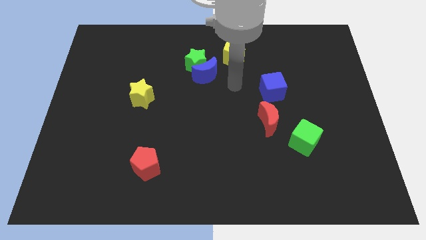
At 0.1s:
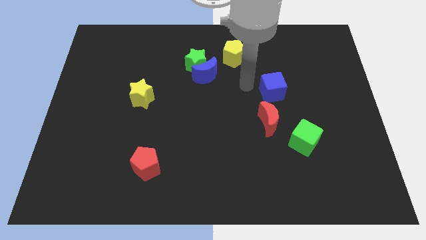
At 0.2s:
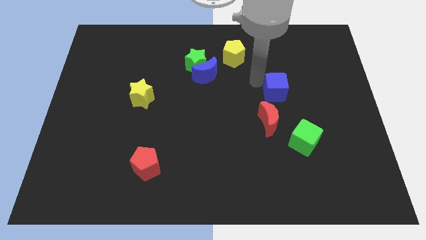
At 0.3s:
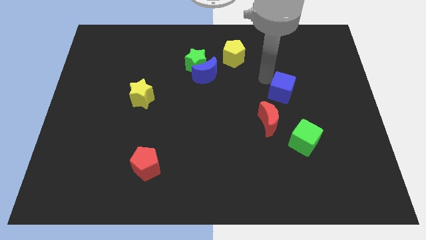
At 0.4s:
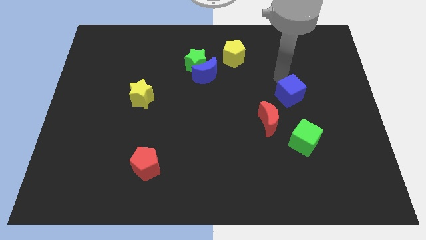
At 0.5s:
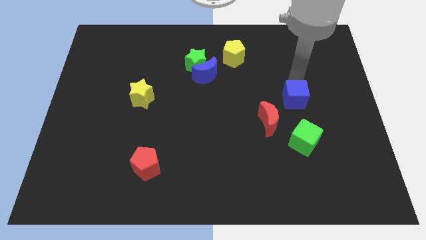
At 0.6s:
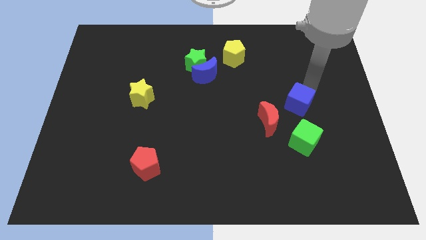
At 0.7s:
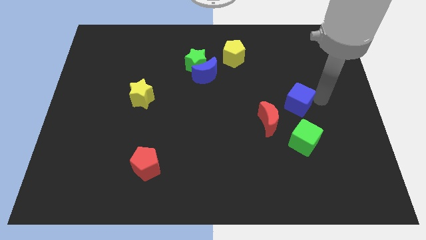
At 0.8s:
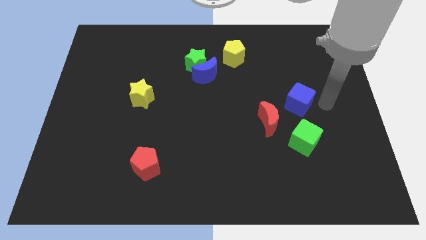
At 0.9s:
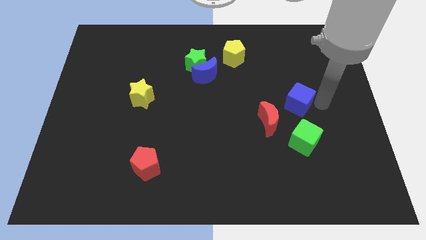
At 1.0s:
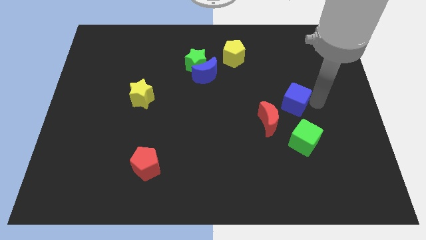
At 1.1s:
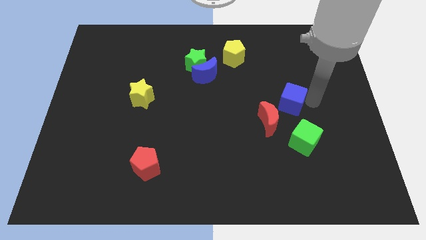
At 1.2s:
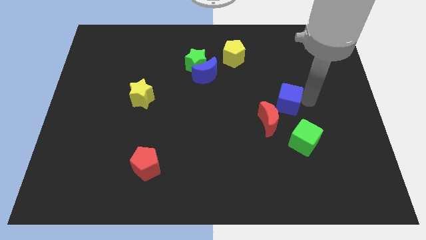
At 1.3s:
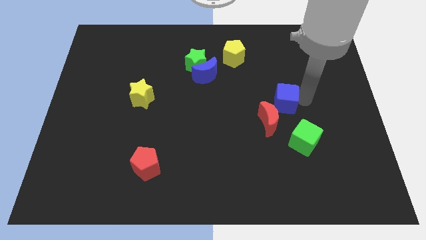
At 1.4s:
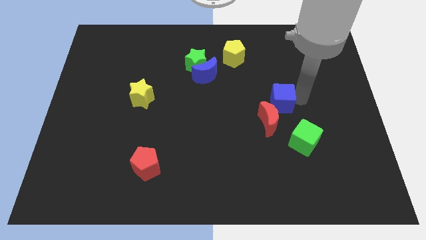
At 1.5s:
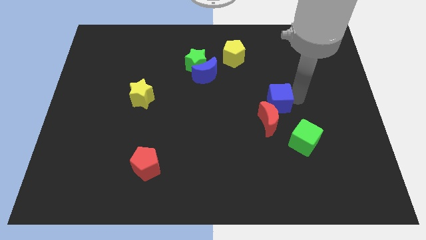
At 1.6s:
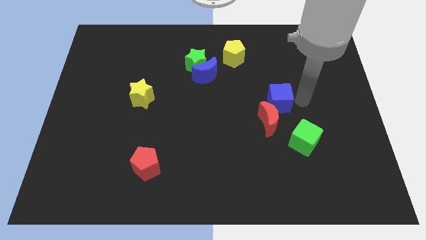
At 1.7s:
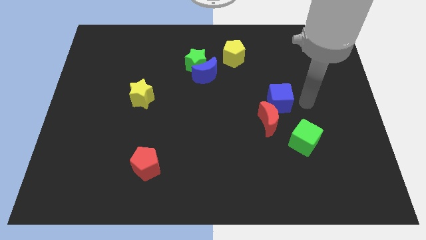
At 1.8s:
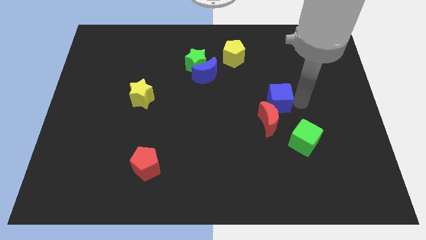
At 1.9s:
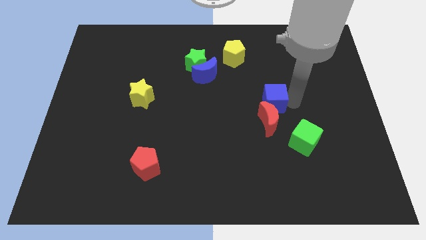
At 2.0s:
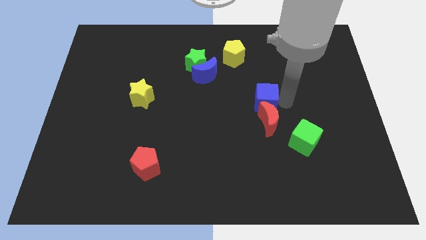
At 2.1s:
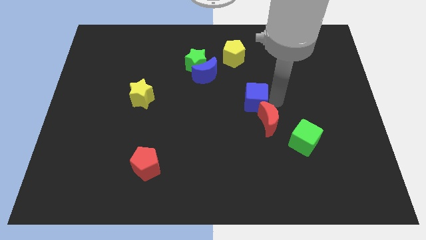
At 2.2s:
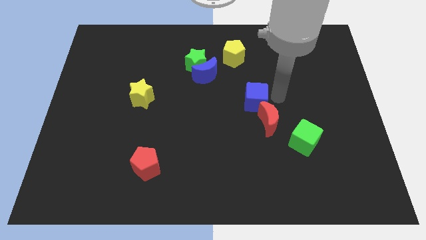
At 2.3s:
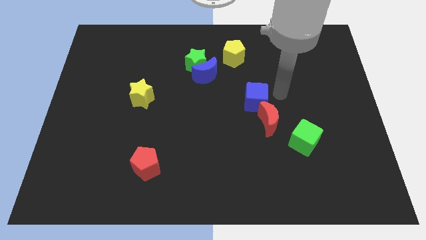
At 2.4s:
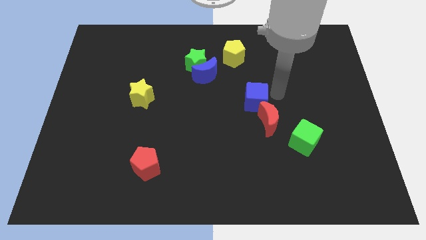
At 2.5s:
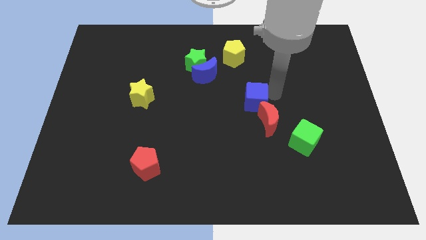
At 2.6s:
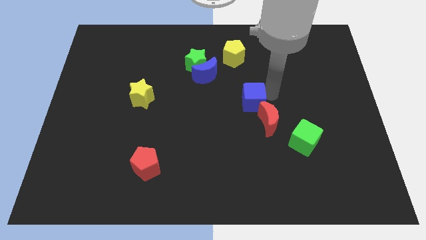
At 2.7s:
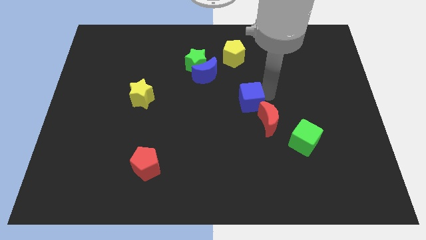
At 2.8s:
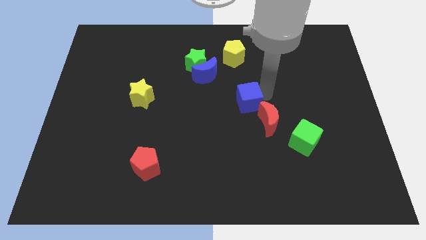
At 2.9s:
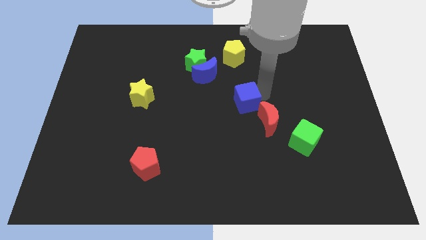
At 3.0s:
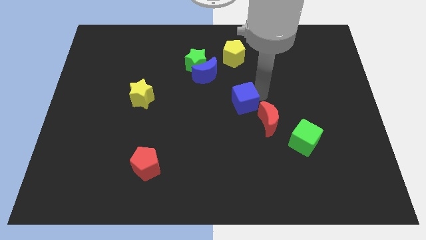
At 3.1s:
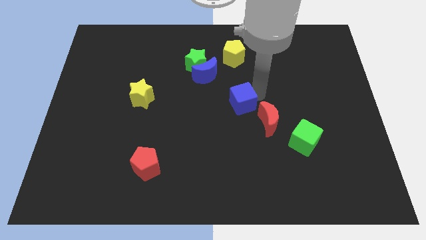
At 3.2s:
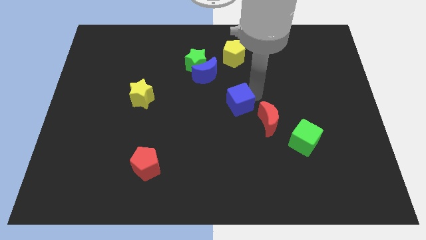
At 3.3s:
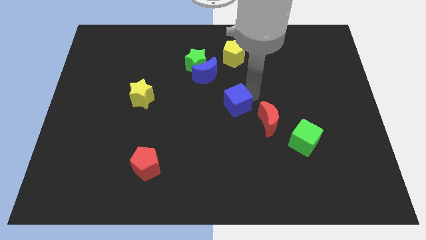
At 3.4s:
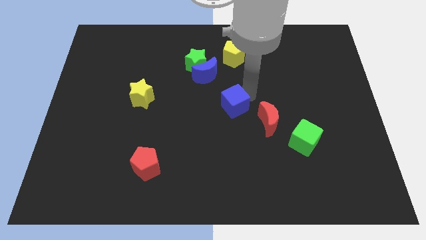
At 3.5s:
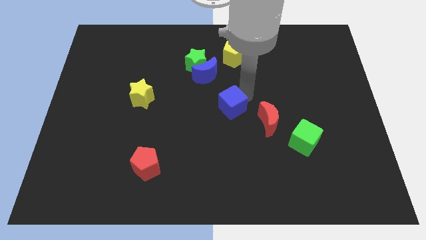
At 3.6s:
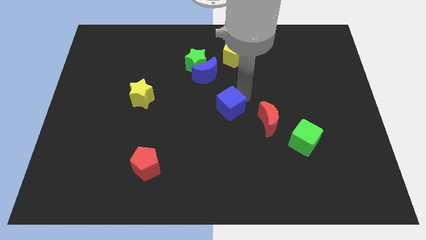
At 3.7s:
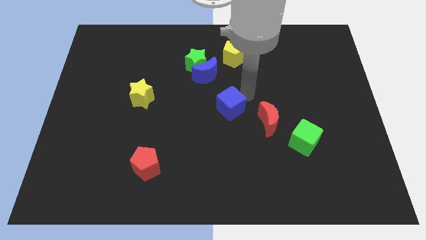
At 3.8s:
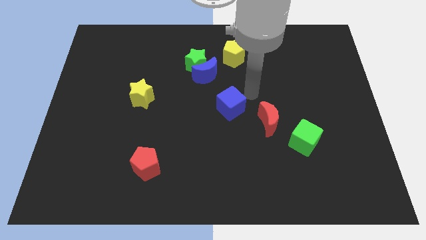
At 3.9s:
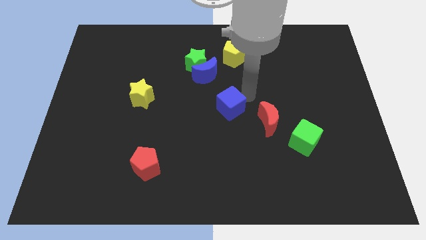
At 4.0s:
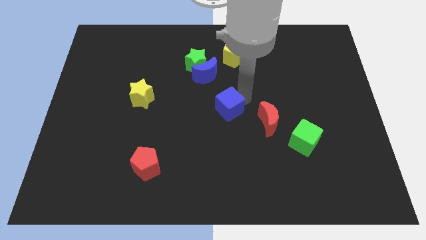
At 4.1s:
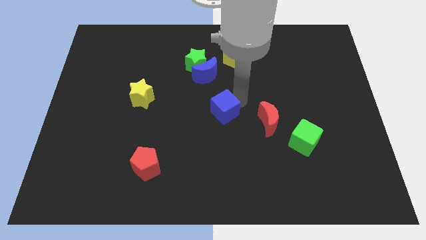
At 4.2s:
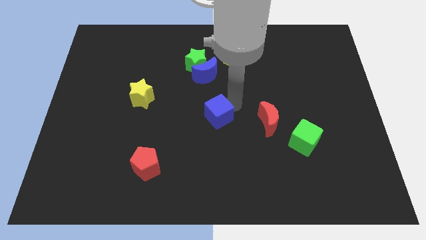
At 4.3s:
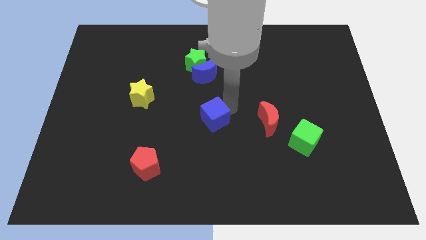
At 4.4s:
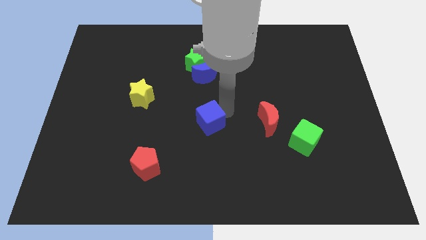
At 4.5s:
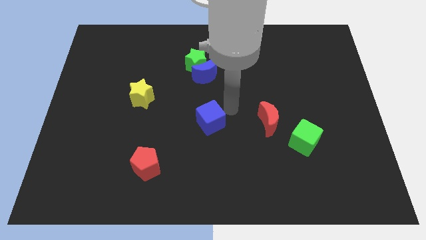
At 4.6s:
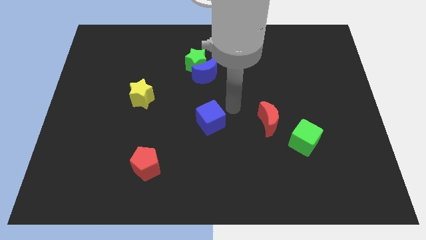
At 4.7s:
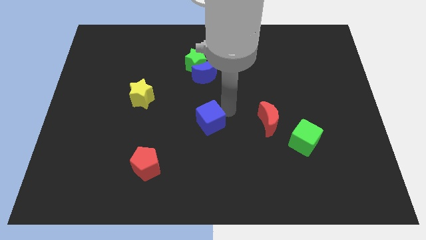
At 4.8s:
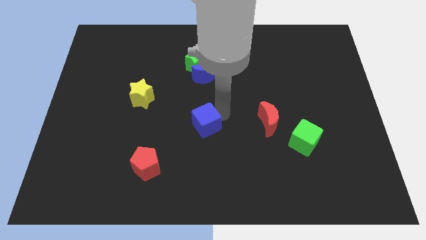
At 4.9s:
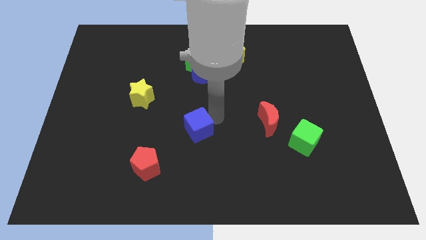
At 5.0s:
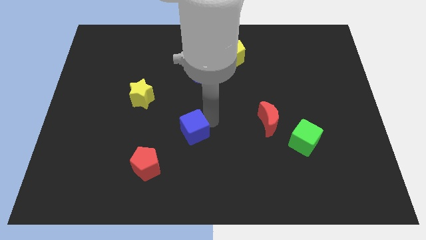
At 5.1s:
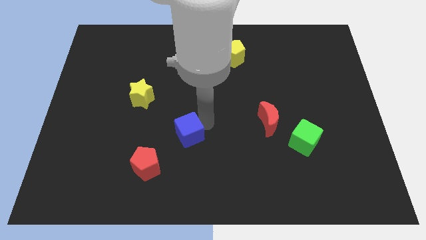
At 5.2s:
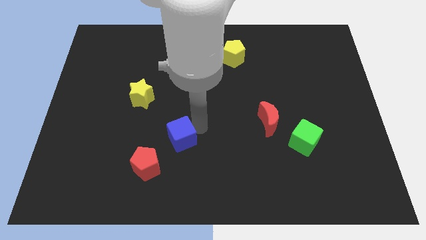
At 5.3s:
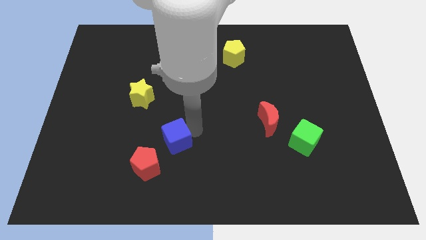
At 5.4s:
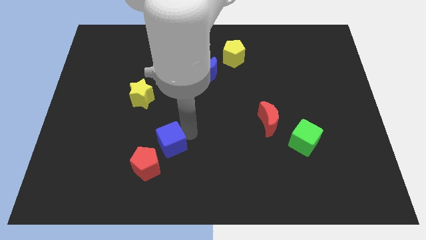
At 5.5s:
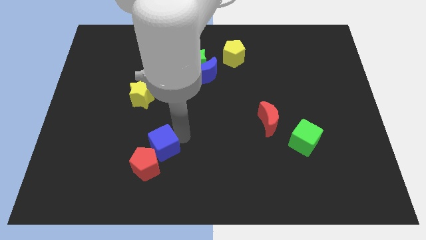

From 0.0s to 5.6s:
push the blue cube towards the red pentagon
